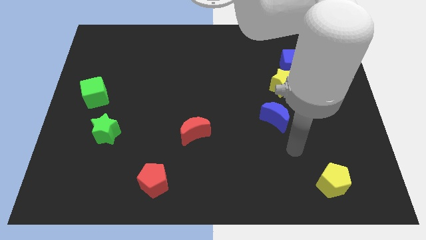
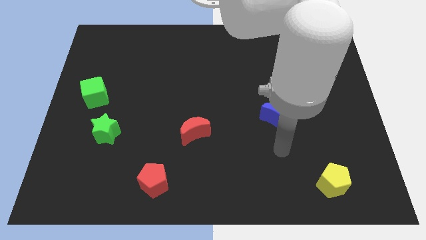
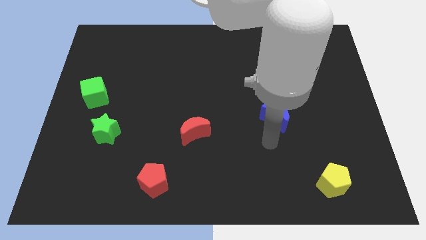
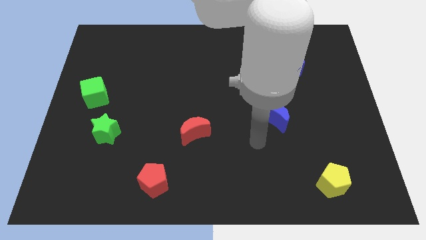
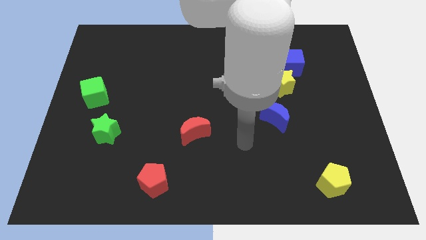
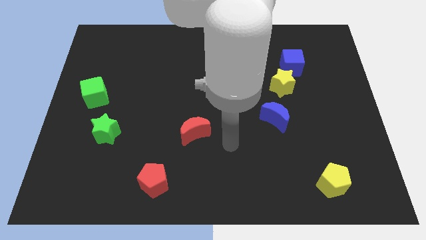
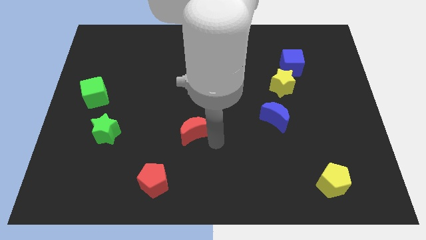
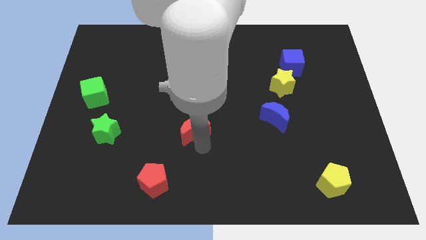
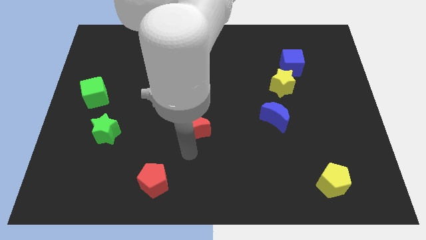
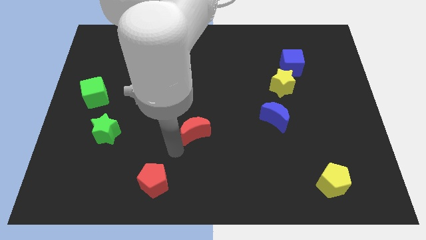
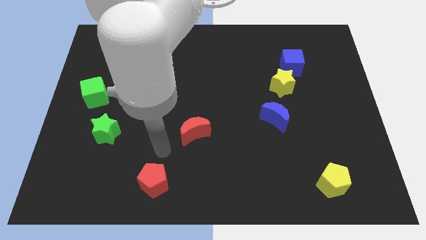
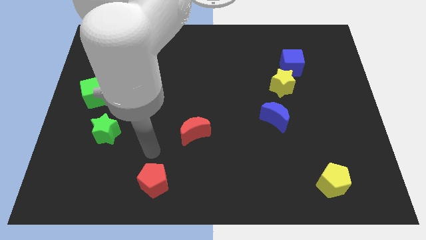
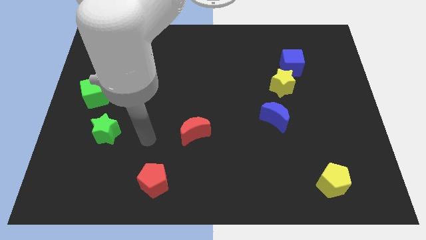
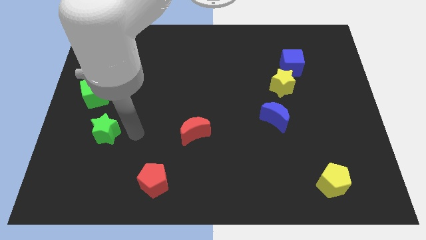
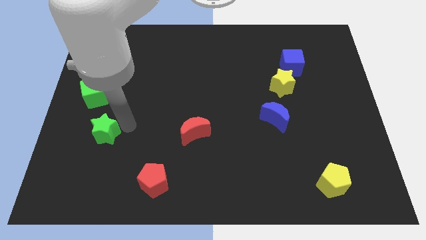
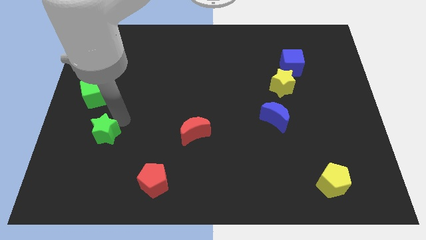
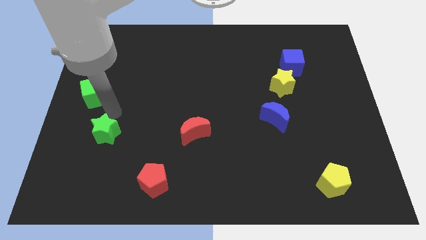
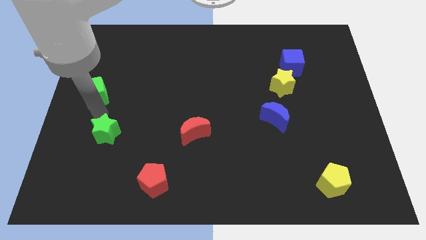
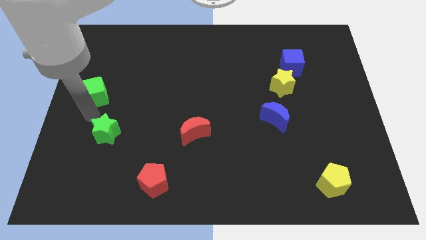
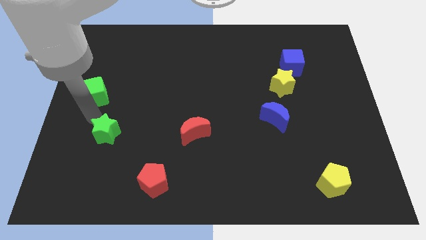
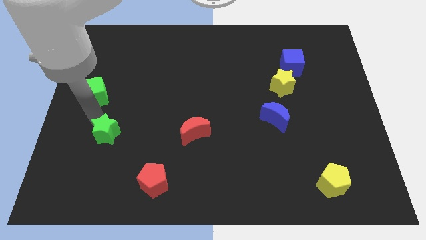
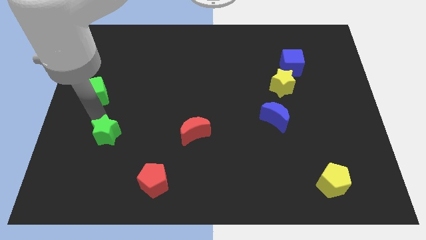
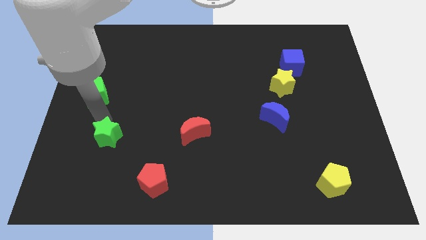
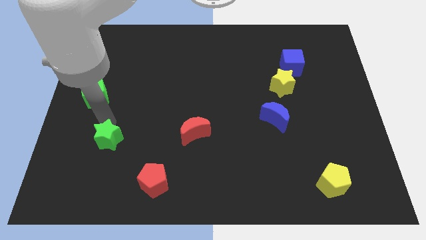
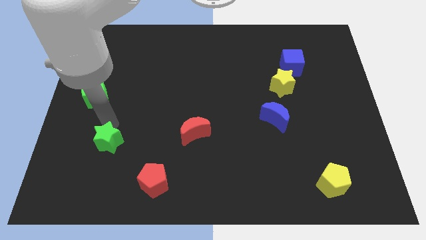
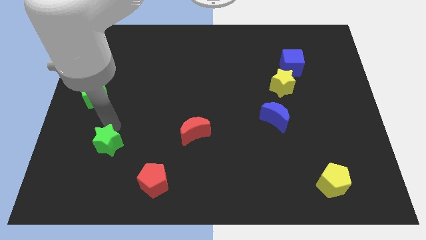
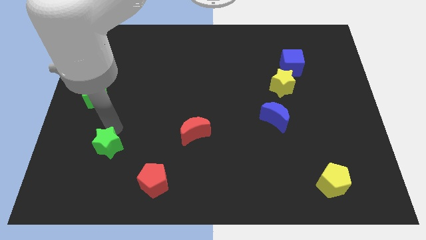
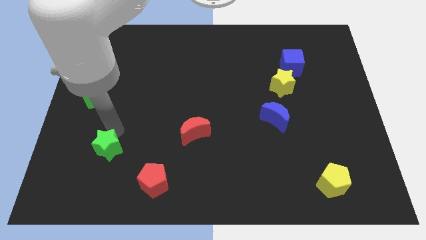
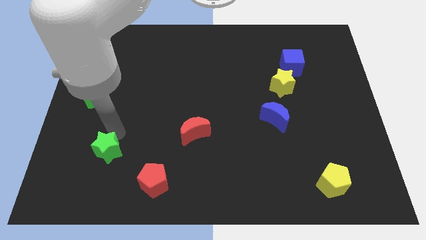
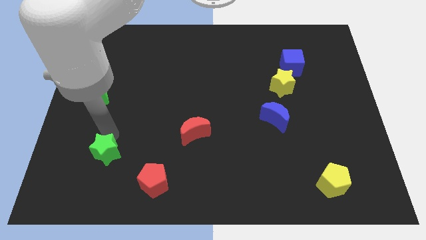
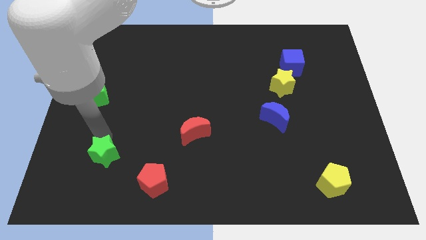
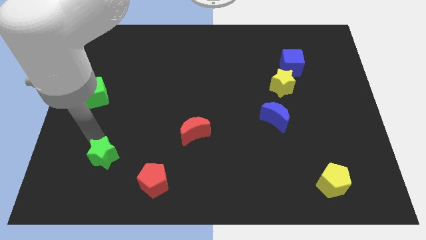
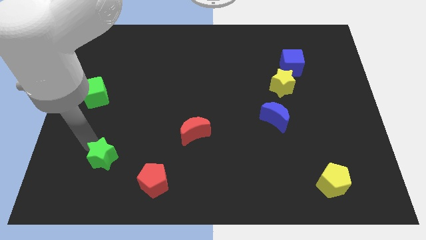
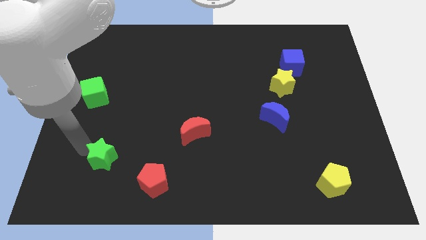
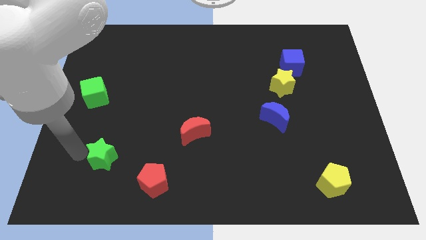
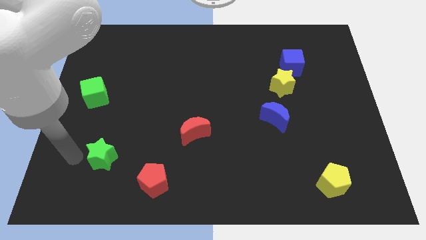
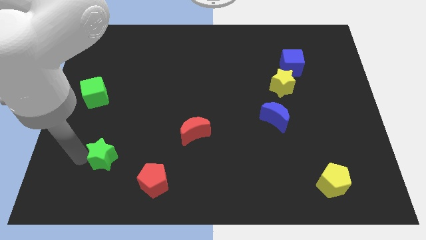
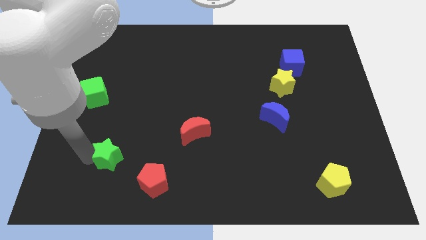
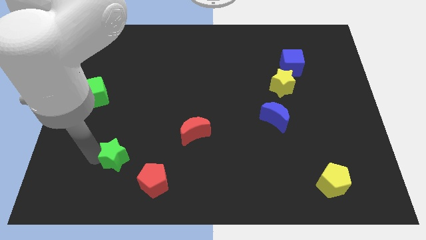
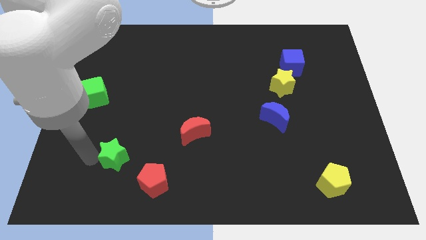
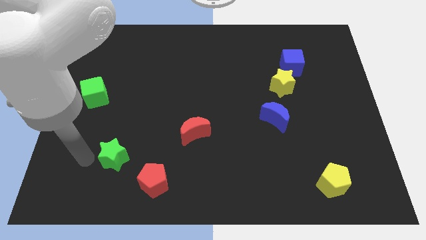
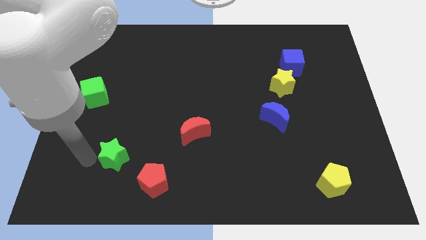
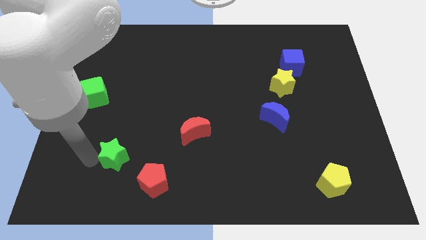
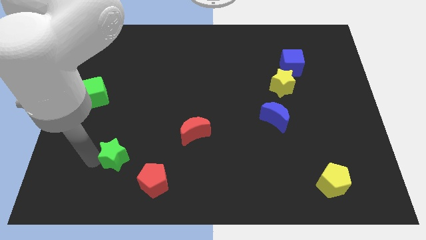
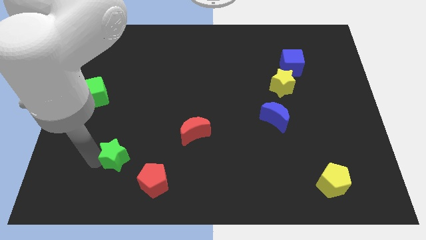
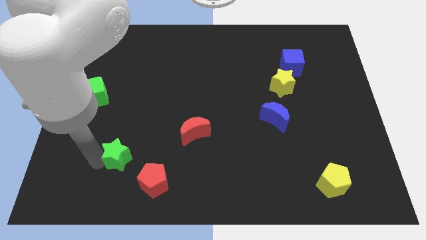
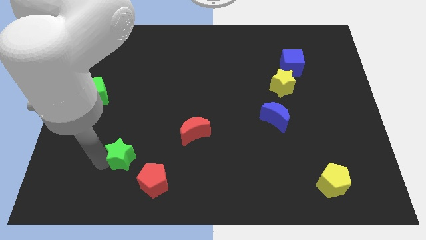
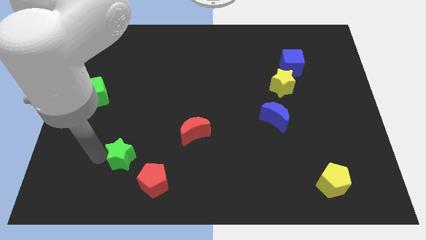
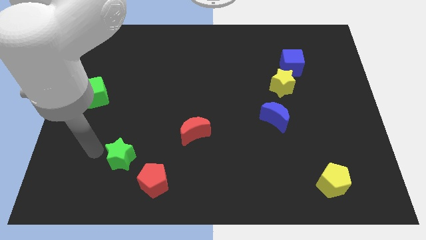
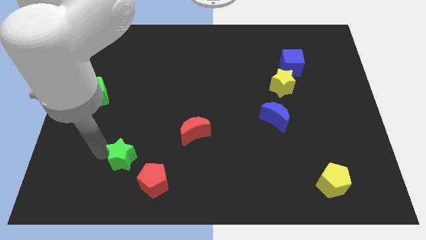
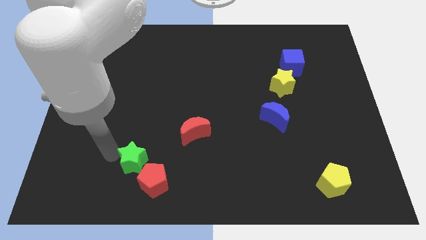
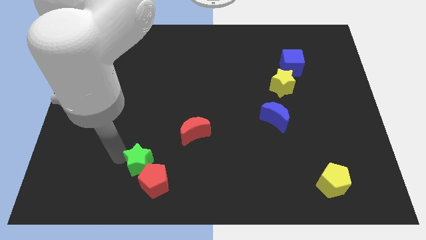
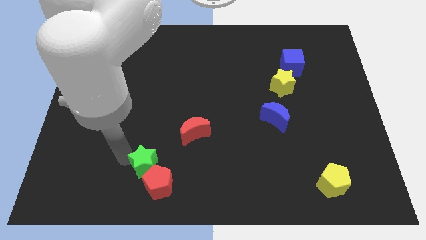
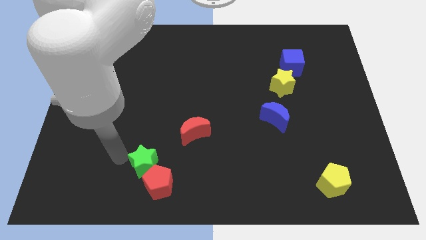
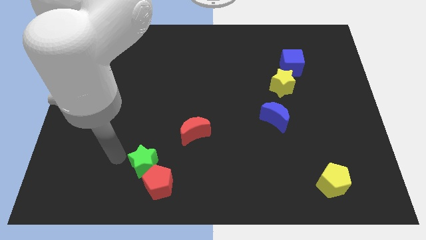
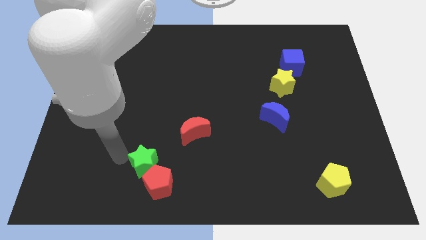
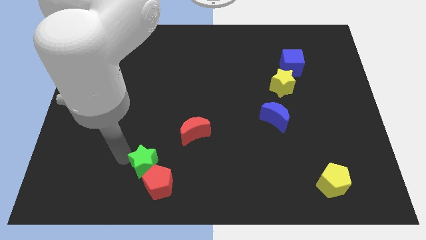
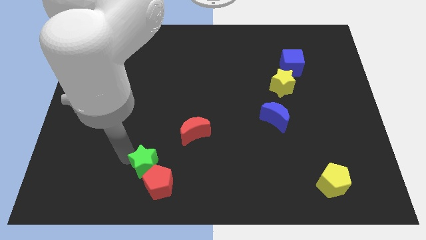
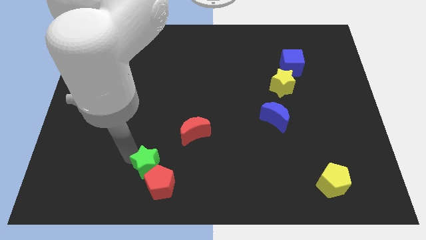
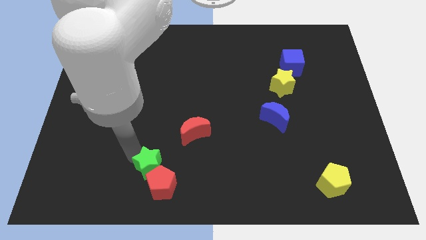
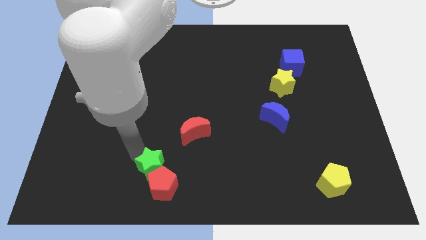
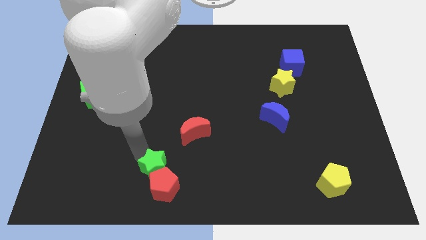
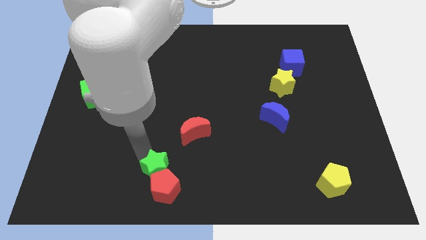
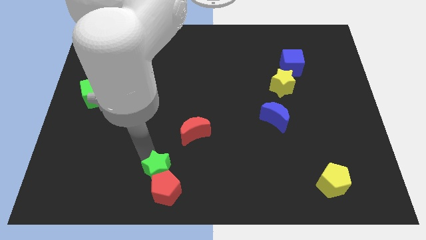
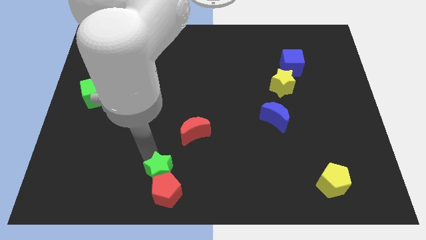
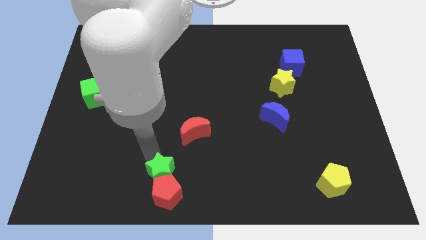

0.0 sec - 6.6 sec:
put the green star to the bottom side
